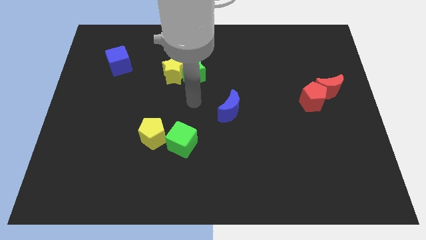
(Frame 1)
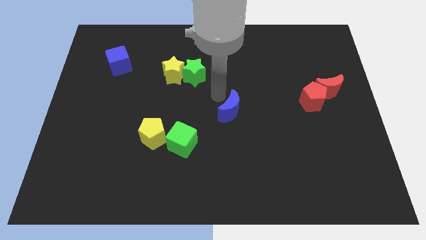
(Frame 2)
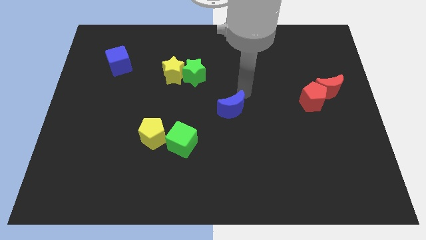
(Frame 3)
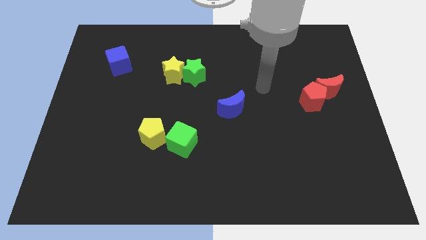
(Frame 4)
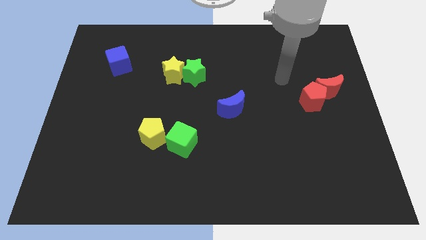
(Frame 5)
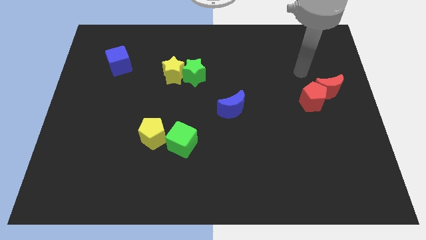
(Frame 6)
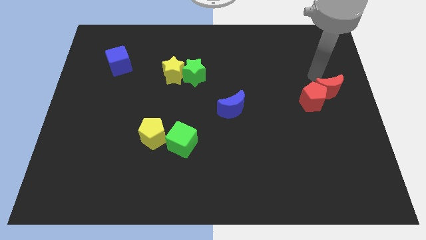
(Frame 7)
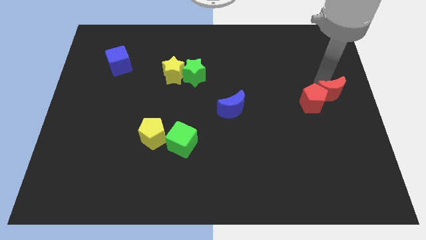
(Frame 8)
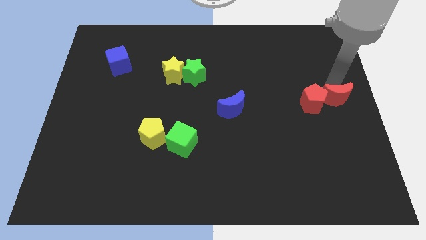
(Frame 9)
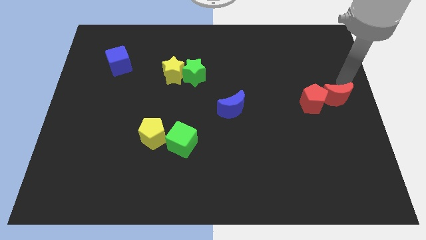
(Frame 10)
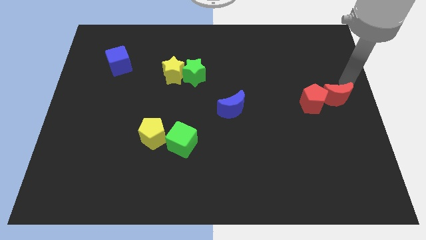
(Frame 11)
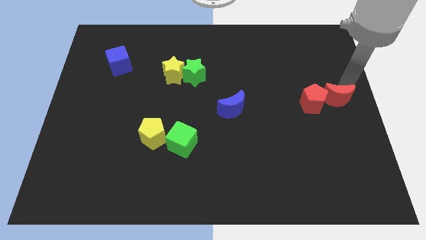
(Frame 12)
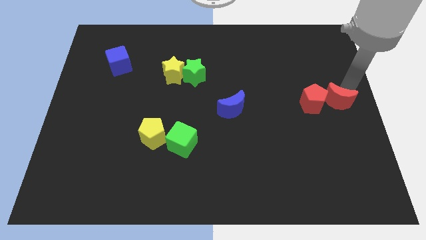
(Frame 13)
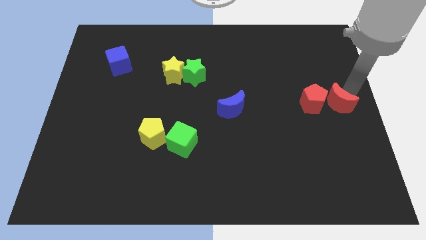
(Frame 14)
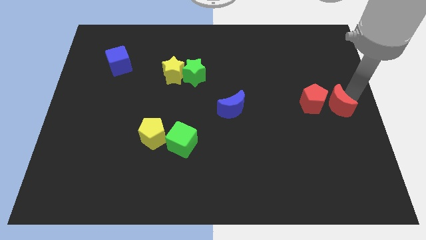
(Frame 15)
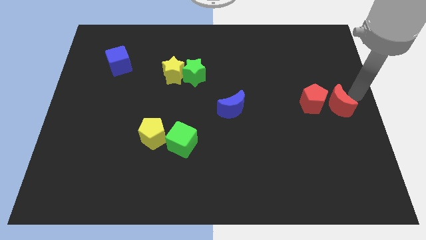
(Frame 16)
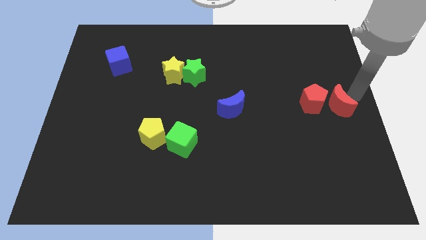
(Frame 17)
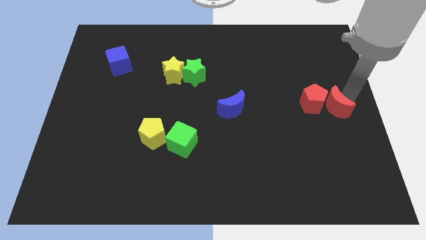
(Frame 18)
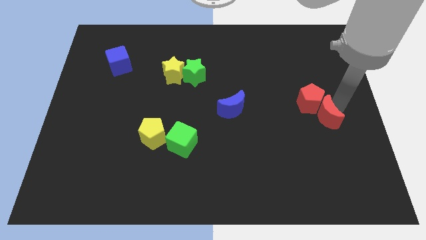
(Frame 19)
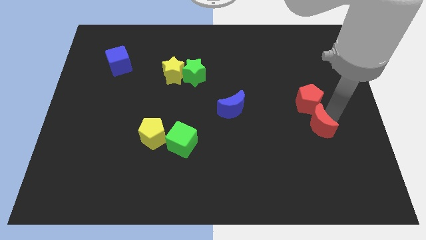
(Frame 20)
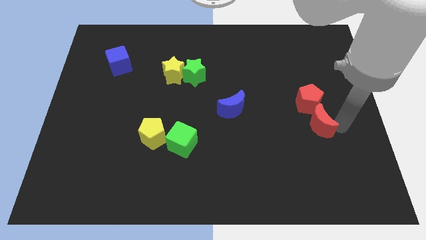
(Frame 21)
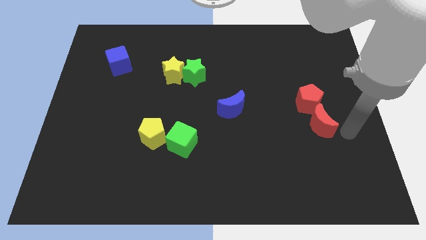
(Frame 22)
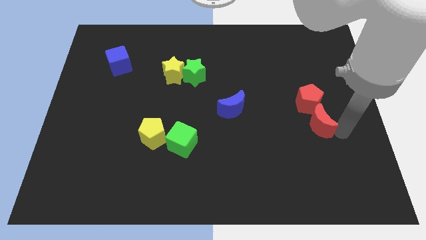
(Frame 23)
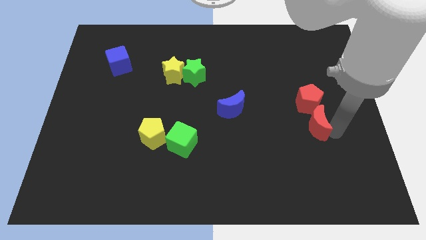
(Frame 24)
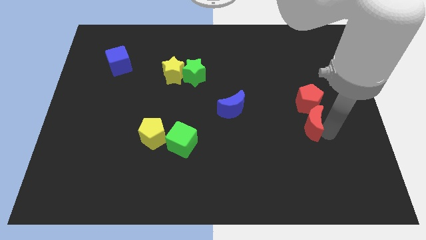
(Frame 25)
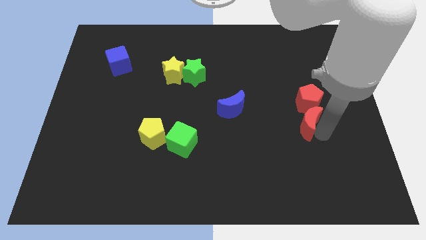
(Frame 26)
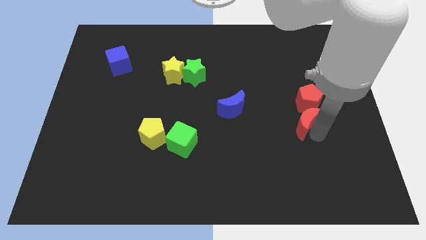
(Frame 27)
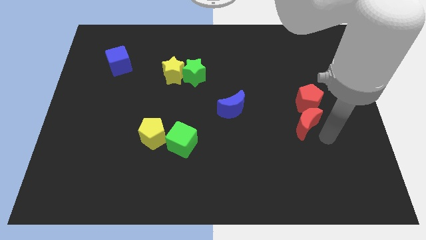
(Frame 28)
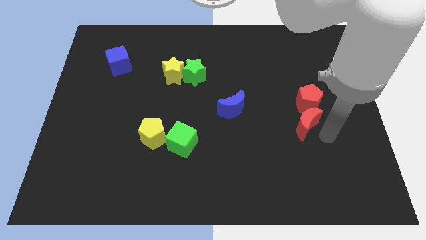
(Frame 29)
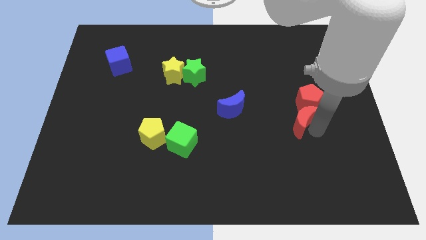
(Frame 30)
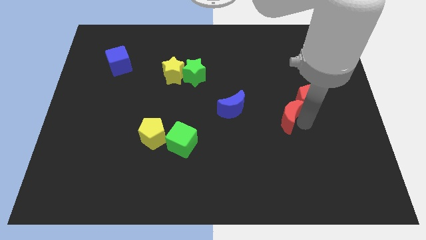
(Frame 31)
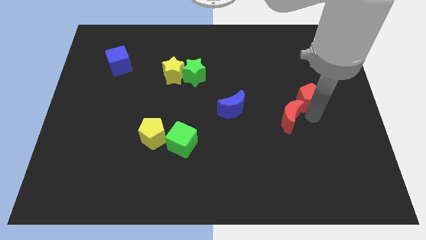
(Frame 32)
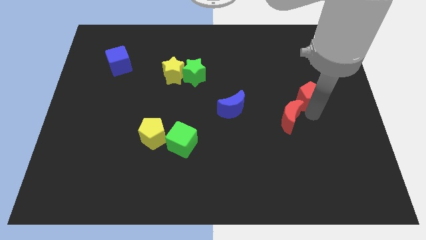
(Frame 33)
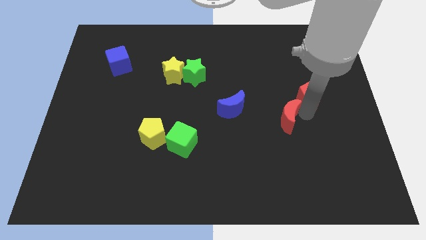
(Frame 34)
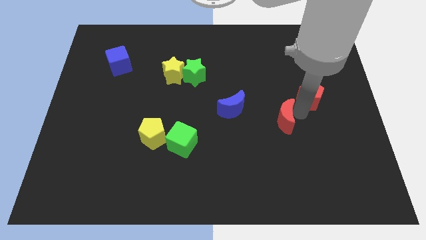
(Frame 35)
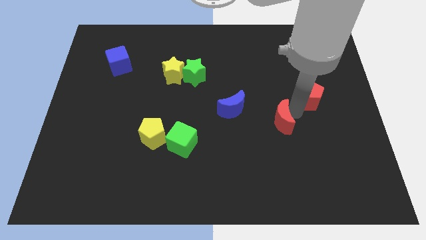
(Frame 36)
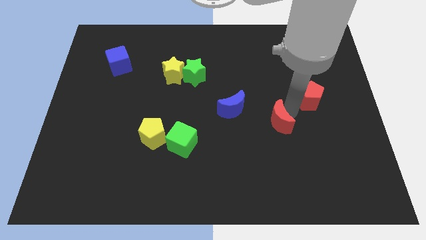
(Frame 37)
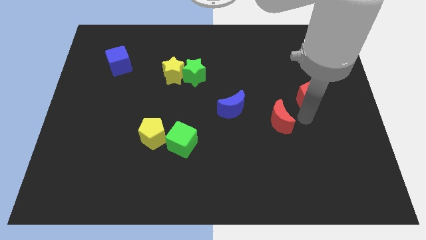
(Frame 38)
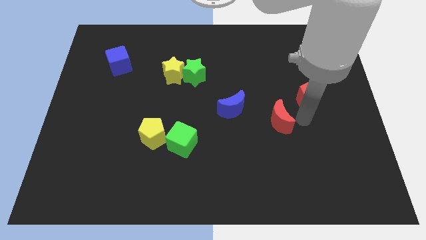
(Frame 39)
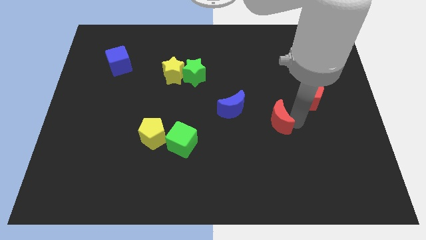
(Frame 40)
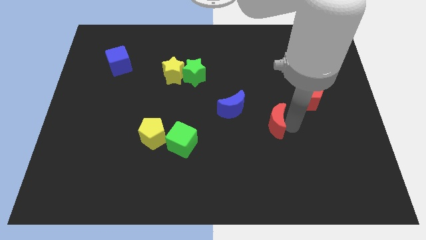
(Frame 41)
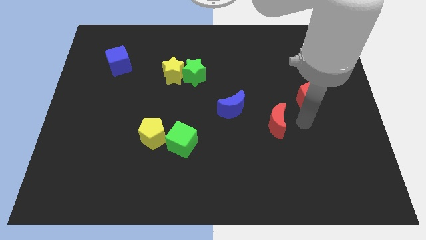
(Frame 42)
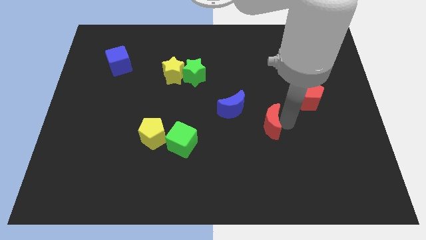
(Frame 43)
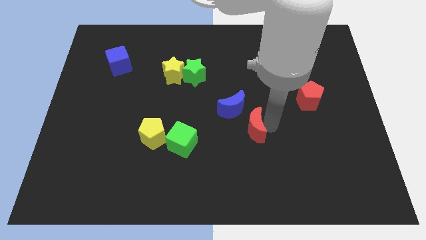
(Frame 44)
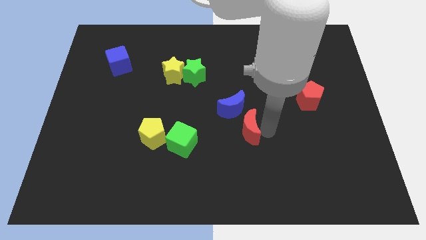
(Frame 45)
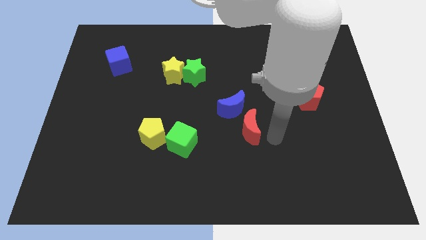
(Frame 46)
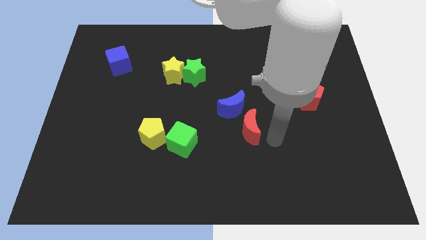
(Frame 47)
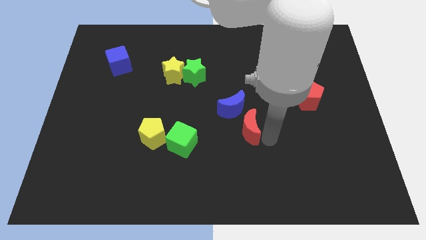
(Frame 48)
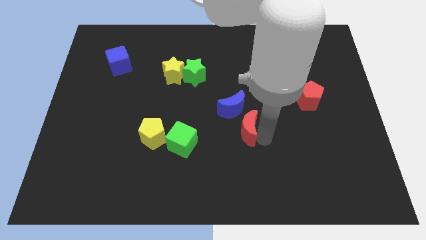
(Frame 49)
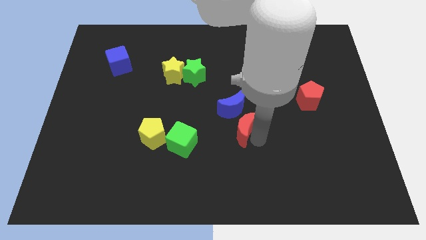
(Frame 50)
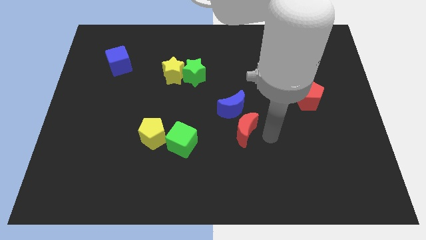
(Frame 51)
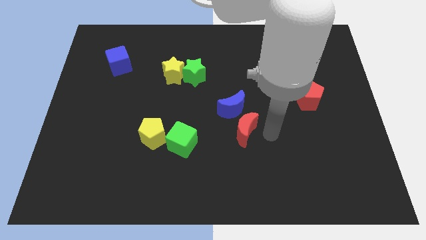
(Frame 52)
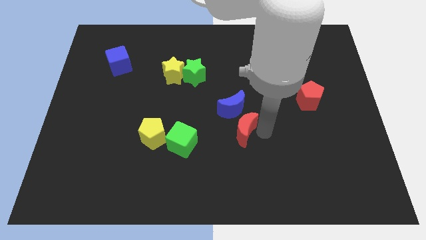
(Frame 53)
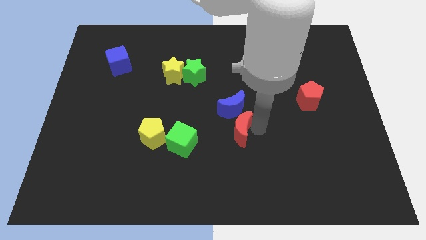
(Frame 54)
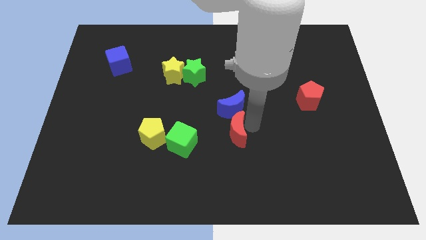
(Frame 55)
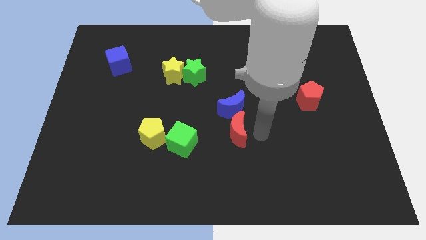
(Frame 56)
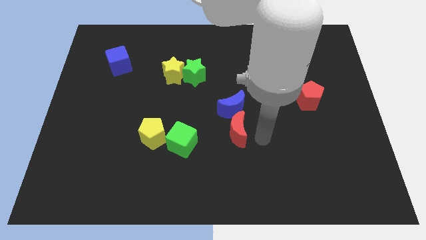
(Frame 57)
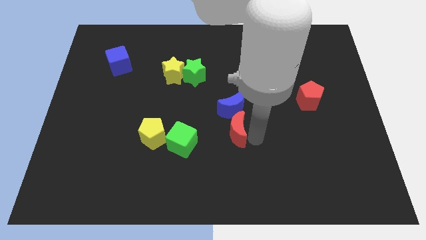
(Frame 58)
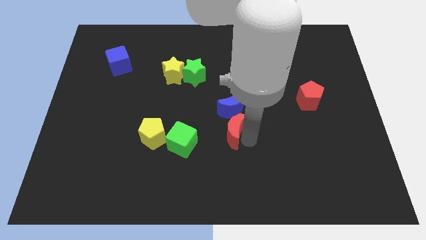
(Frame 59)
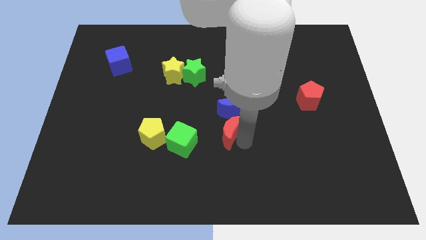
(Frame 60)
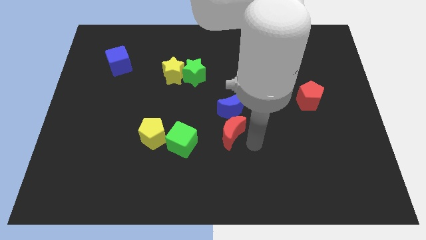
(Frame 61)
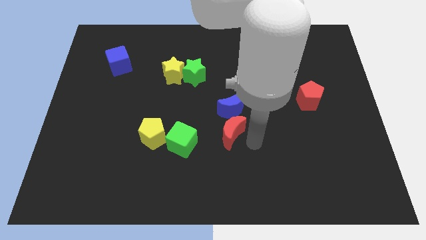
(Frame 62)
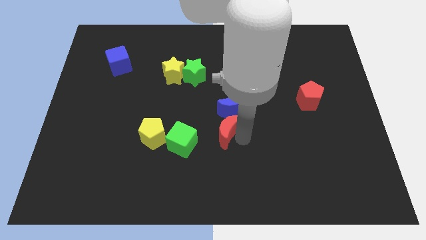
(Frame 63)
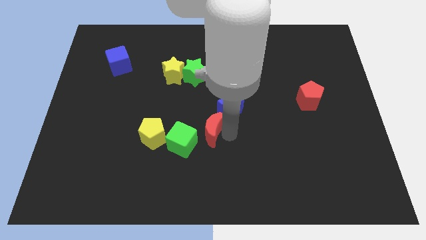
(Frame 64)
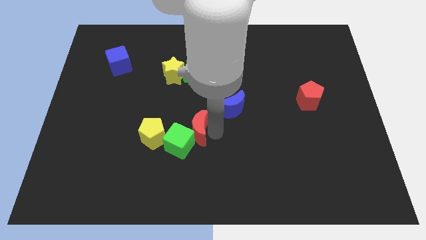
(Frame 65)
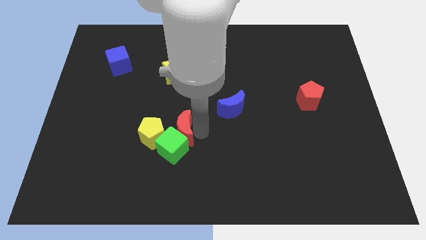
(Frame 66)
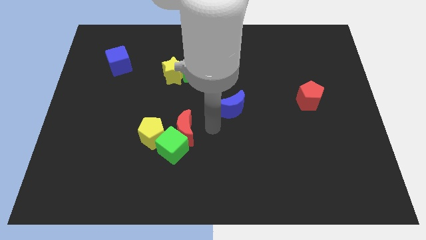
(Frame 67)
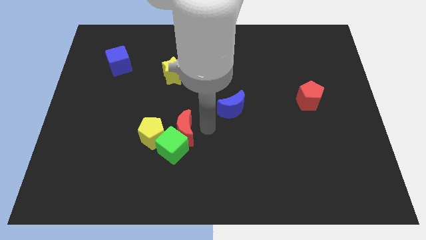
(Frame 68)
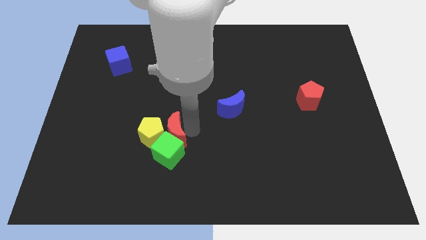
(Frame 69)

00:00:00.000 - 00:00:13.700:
push the red moon to the yellow pentagon
